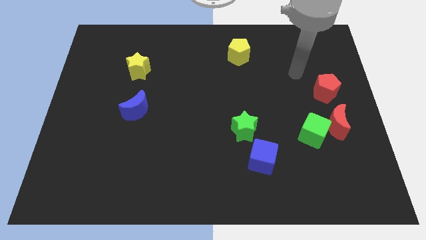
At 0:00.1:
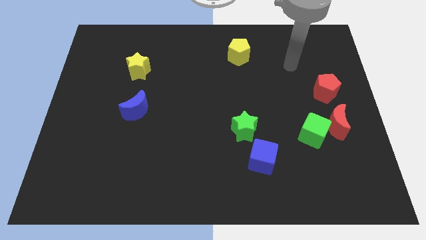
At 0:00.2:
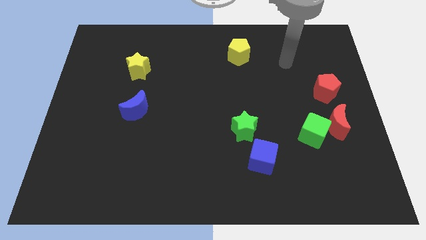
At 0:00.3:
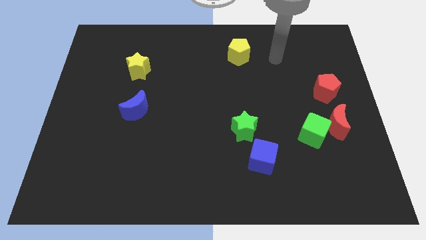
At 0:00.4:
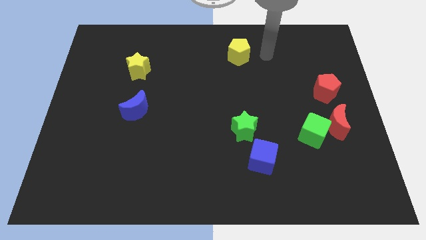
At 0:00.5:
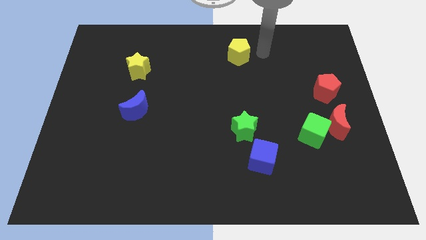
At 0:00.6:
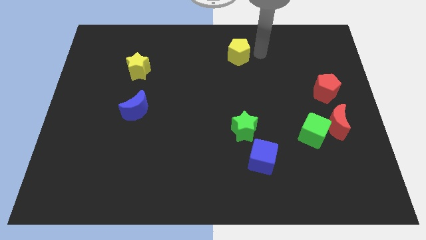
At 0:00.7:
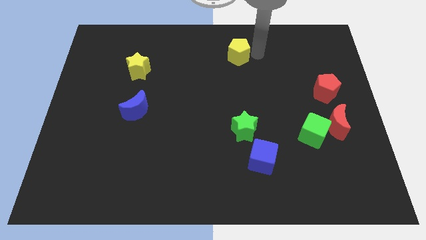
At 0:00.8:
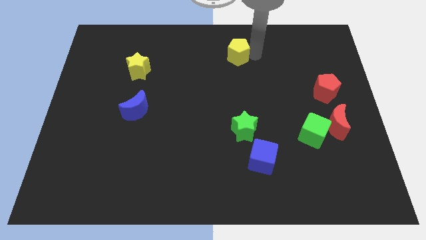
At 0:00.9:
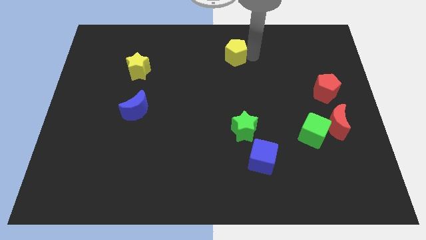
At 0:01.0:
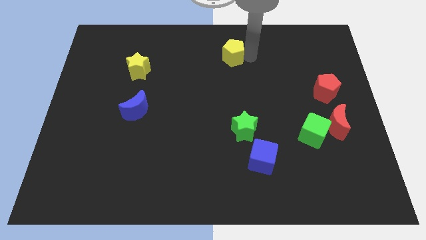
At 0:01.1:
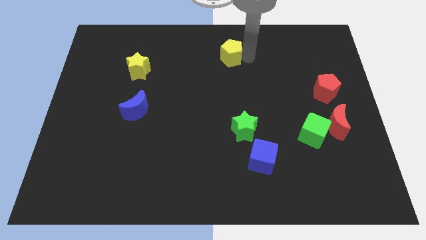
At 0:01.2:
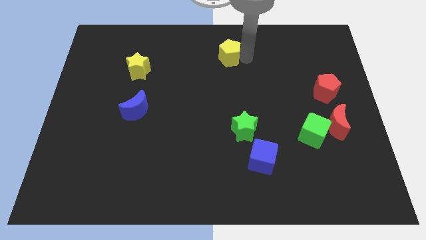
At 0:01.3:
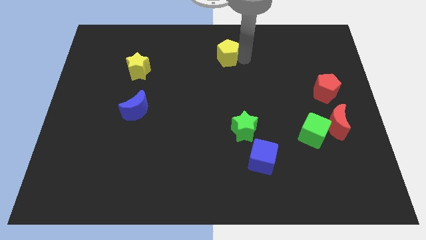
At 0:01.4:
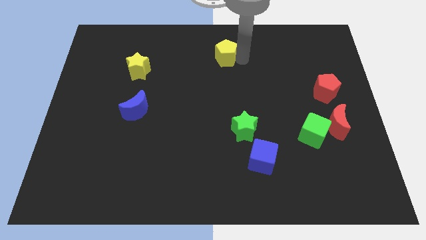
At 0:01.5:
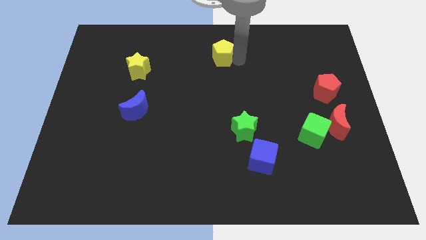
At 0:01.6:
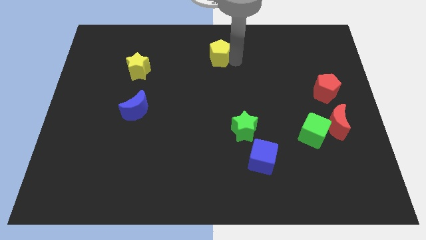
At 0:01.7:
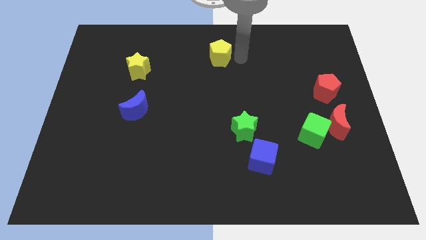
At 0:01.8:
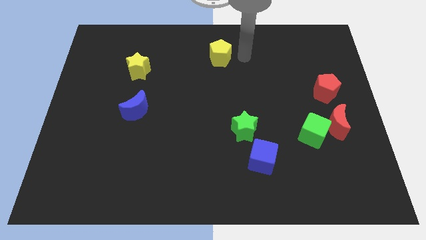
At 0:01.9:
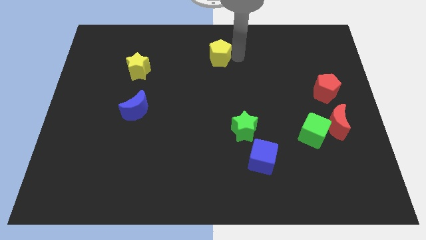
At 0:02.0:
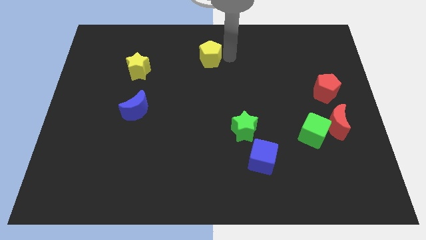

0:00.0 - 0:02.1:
slide the yellow pentagon left a bit

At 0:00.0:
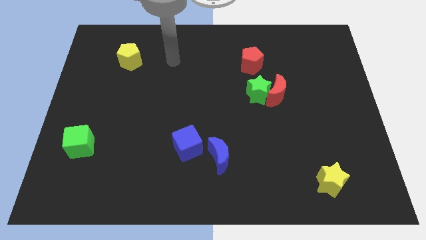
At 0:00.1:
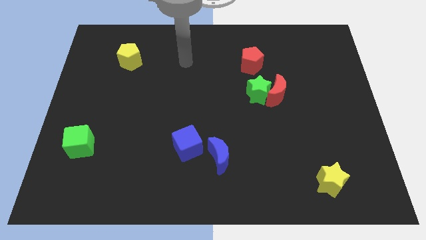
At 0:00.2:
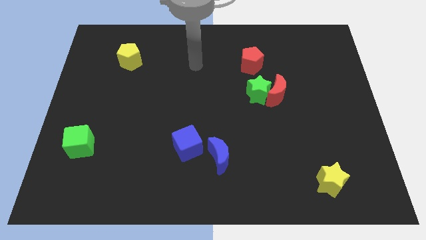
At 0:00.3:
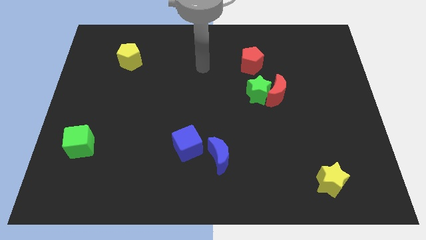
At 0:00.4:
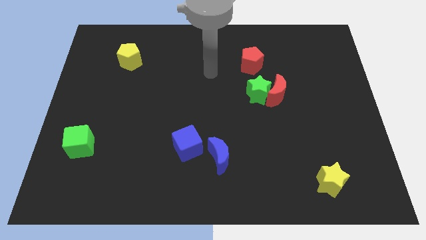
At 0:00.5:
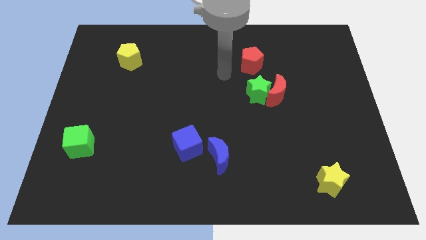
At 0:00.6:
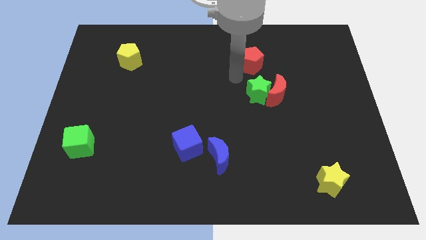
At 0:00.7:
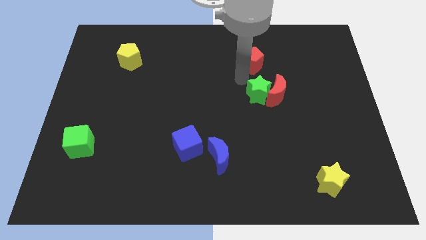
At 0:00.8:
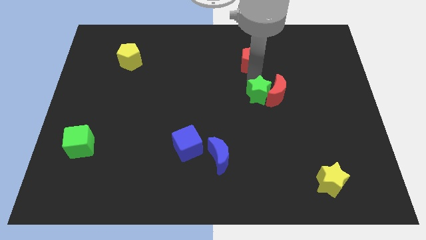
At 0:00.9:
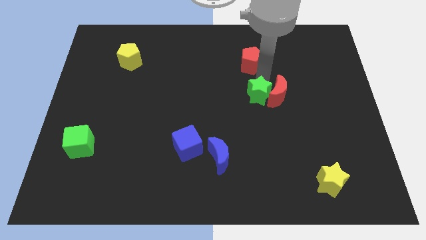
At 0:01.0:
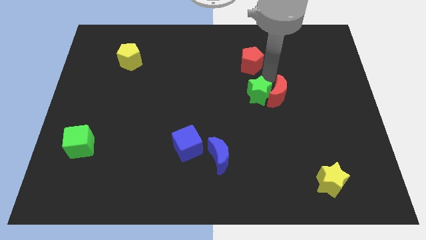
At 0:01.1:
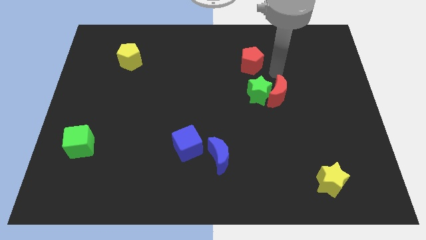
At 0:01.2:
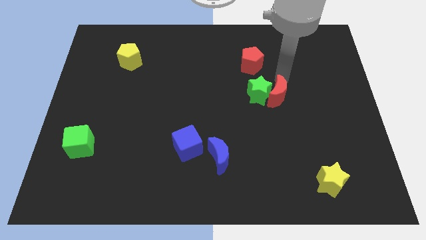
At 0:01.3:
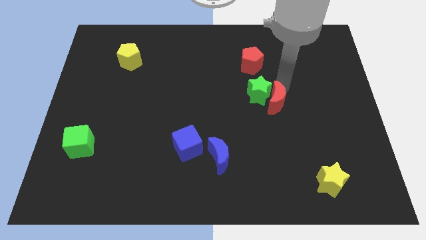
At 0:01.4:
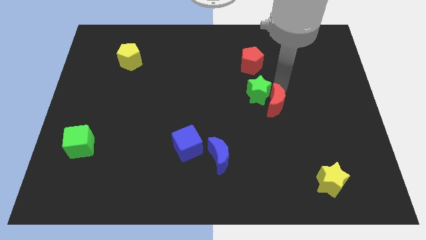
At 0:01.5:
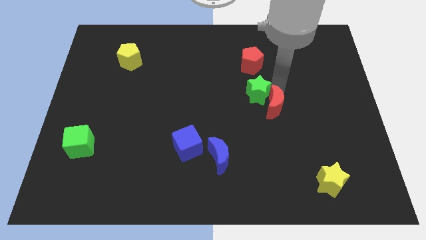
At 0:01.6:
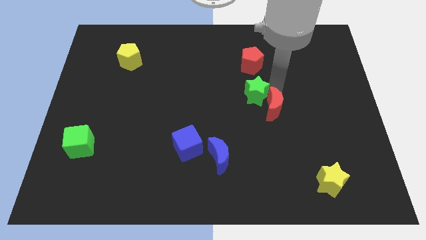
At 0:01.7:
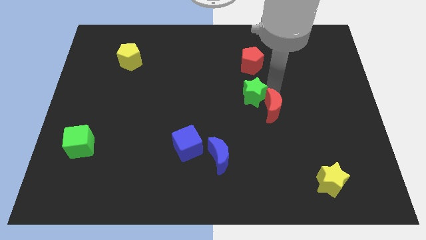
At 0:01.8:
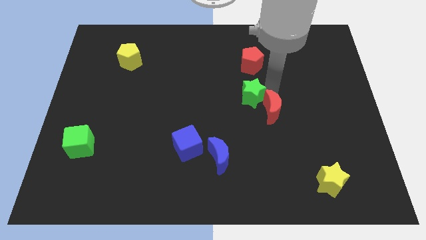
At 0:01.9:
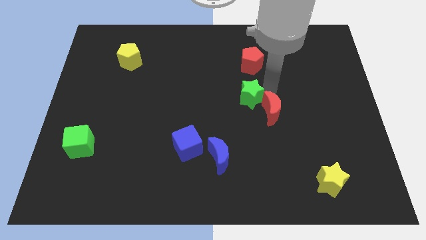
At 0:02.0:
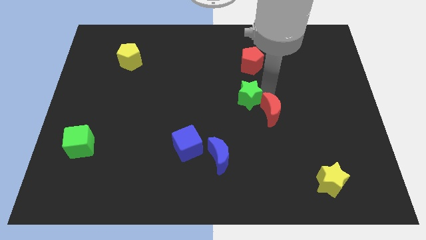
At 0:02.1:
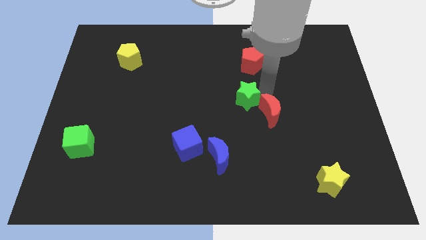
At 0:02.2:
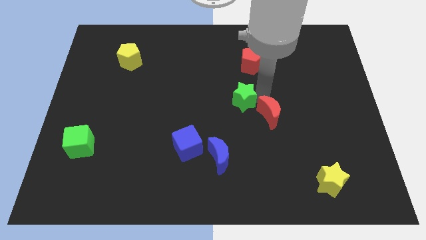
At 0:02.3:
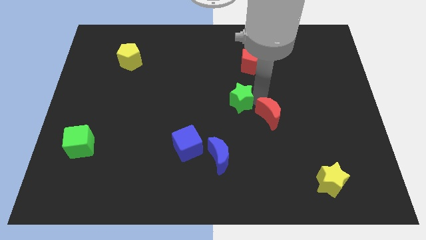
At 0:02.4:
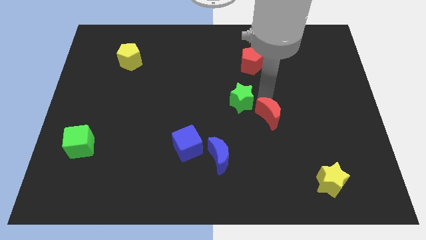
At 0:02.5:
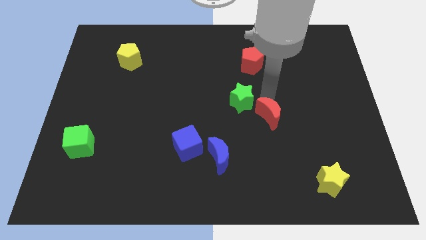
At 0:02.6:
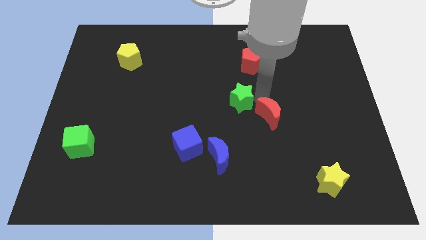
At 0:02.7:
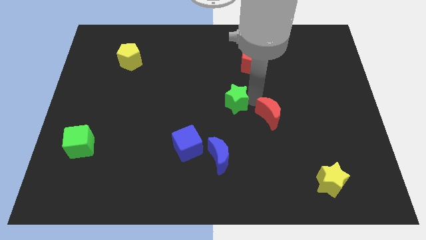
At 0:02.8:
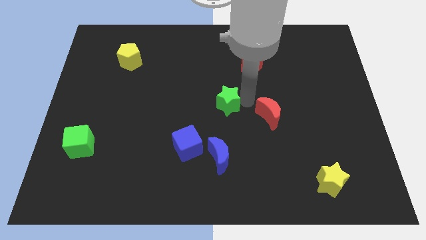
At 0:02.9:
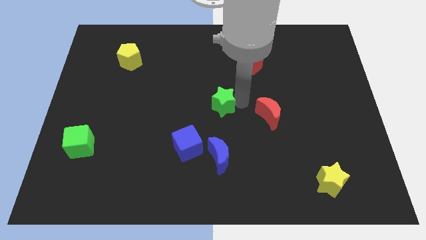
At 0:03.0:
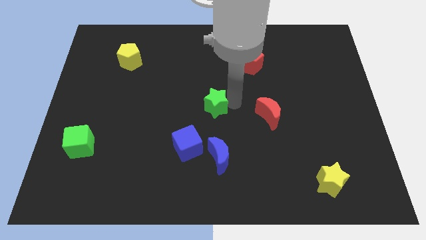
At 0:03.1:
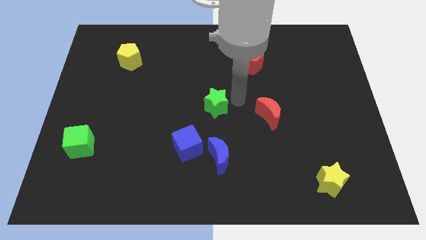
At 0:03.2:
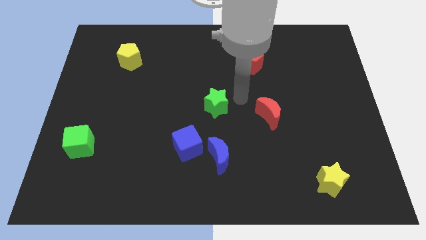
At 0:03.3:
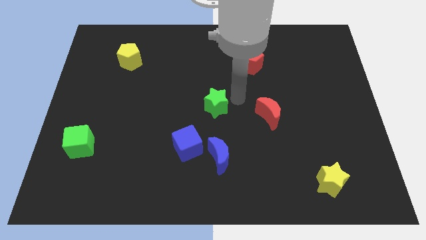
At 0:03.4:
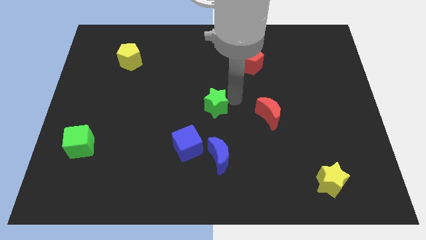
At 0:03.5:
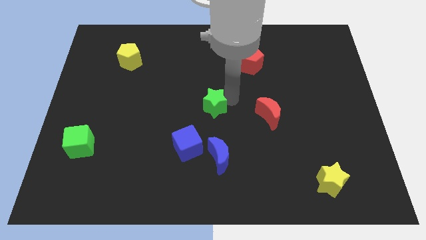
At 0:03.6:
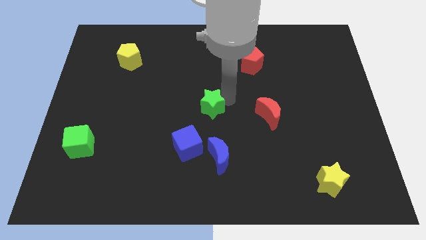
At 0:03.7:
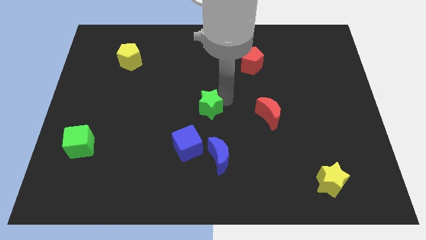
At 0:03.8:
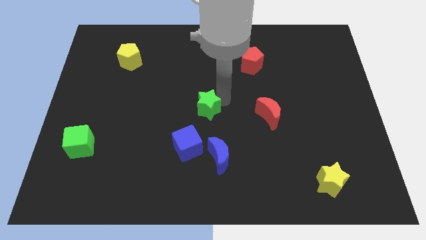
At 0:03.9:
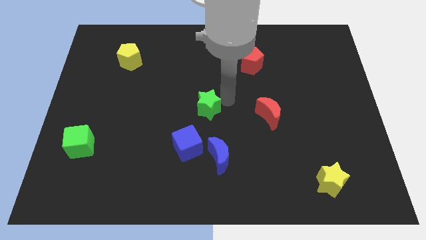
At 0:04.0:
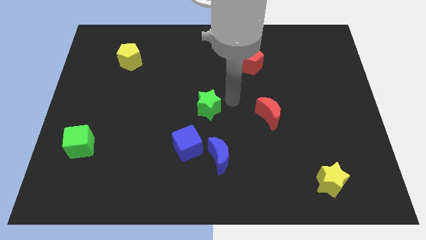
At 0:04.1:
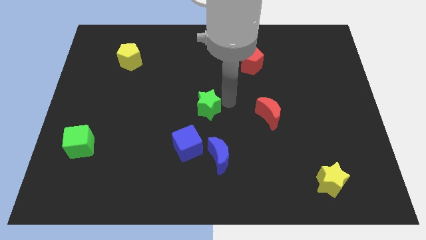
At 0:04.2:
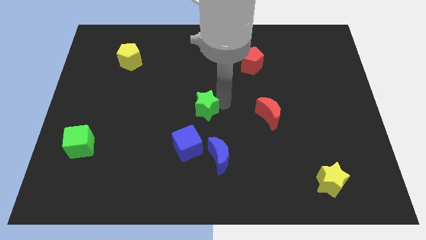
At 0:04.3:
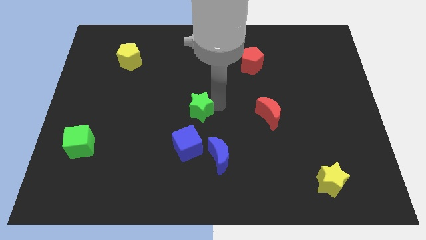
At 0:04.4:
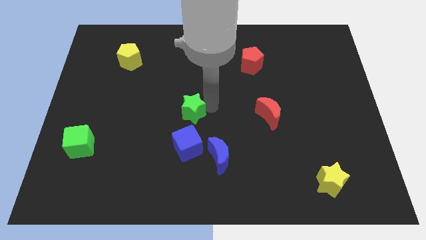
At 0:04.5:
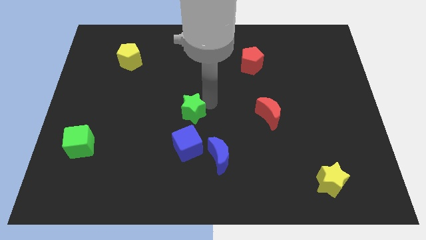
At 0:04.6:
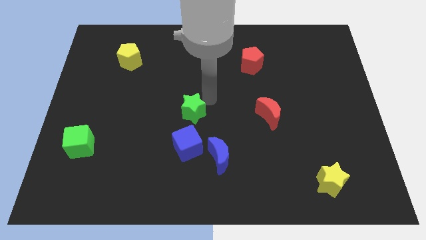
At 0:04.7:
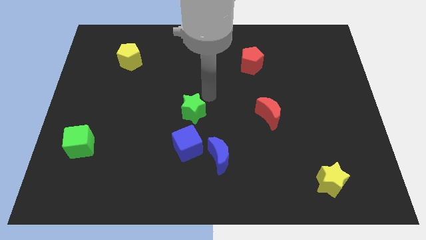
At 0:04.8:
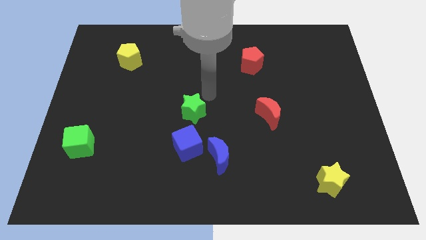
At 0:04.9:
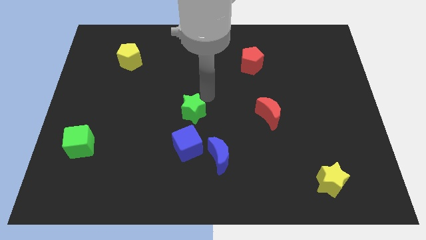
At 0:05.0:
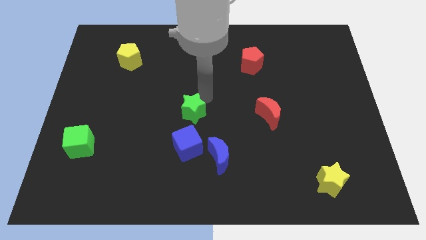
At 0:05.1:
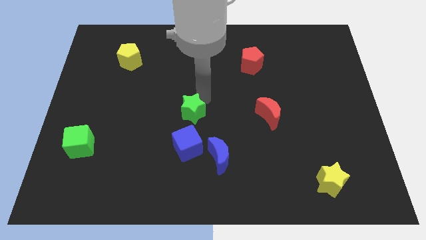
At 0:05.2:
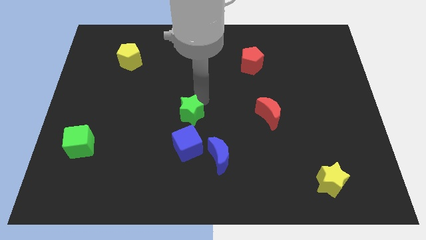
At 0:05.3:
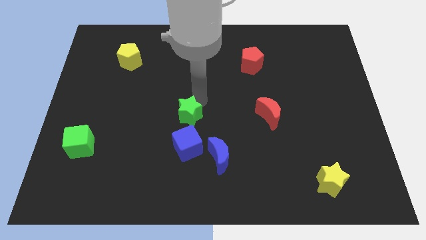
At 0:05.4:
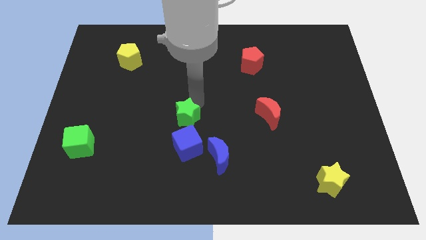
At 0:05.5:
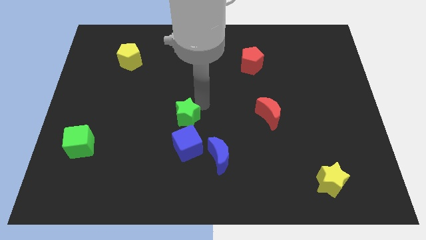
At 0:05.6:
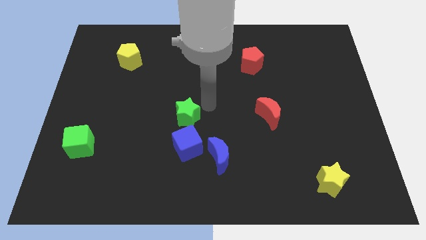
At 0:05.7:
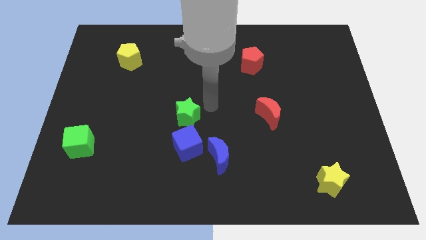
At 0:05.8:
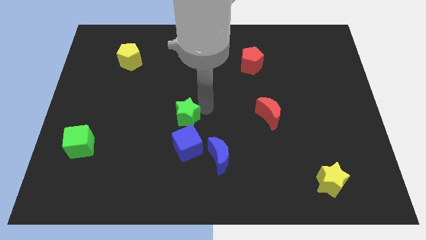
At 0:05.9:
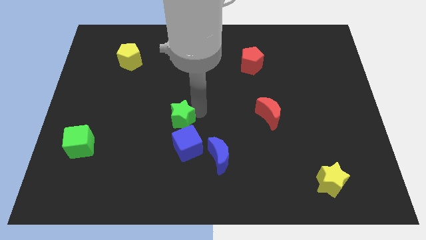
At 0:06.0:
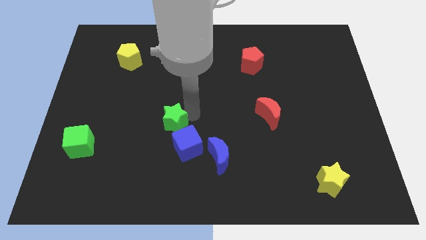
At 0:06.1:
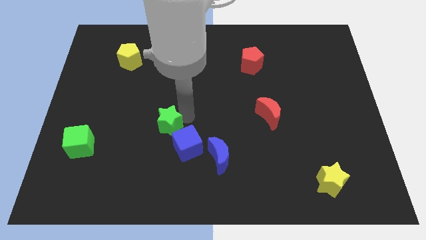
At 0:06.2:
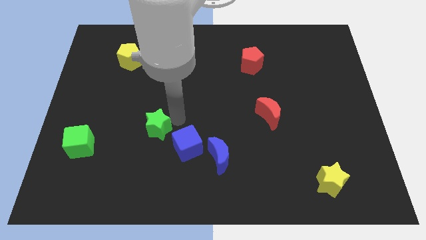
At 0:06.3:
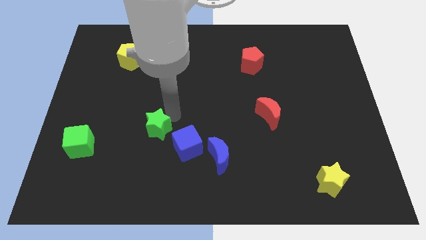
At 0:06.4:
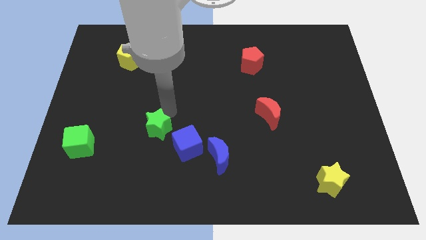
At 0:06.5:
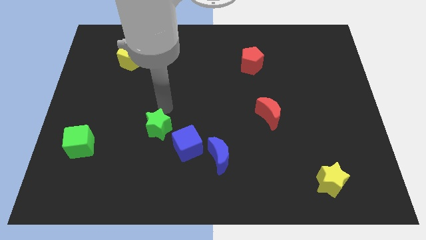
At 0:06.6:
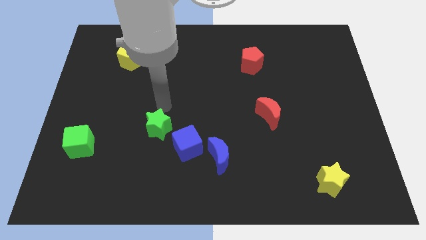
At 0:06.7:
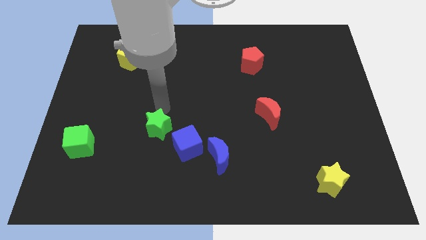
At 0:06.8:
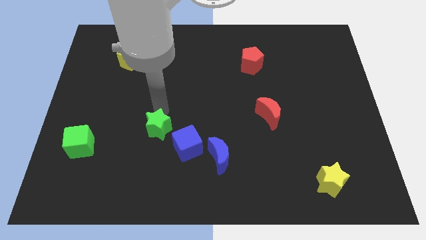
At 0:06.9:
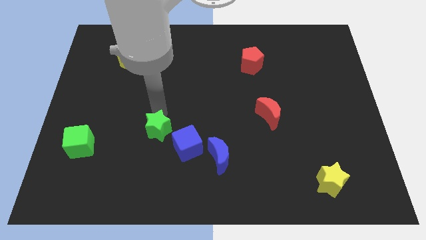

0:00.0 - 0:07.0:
slide the green star diagonally downwards and to the left
